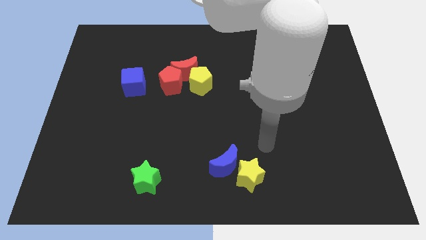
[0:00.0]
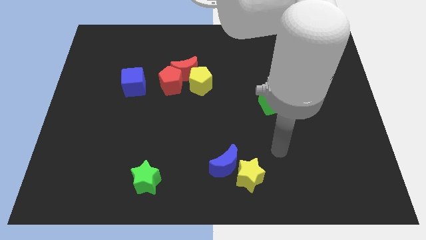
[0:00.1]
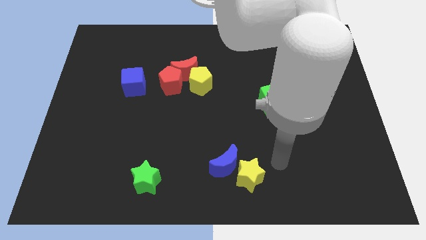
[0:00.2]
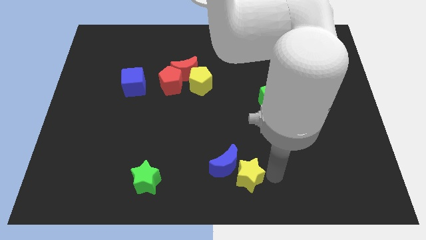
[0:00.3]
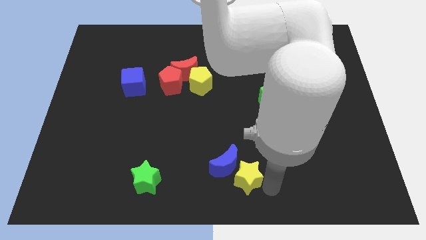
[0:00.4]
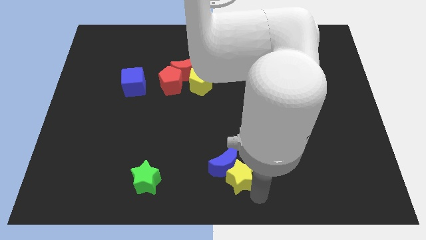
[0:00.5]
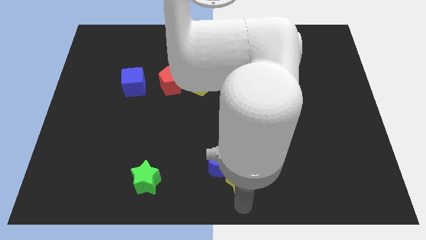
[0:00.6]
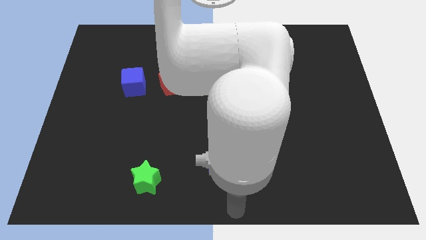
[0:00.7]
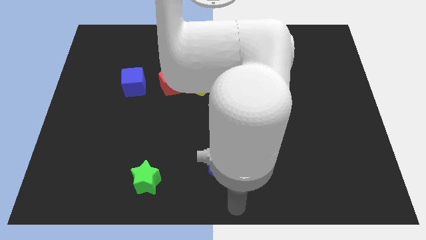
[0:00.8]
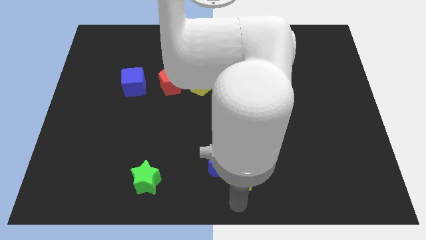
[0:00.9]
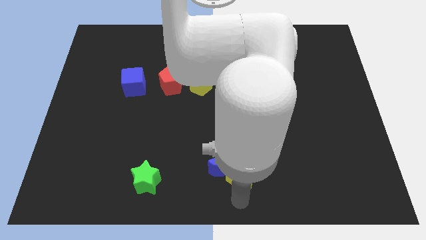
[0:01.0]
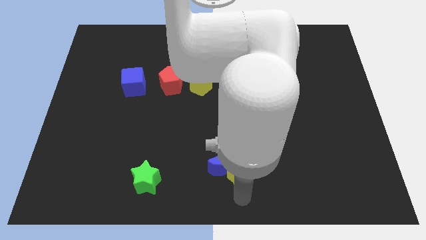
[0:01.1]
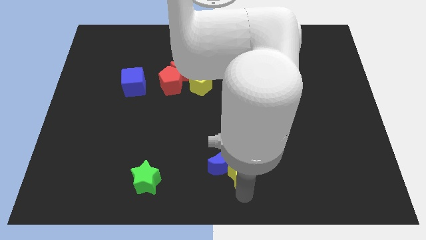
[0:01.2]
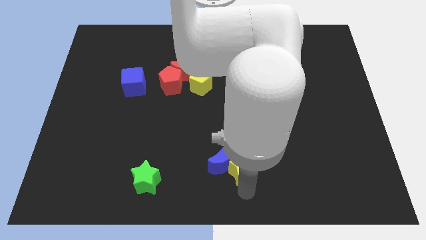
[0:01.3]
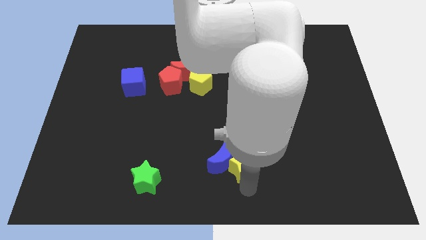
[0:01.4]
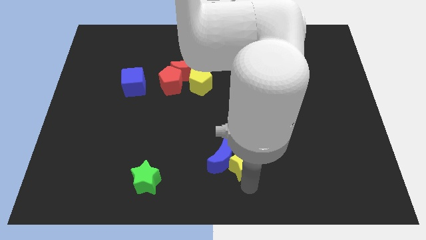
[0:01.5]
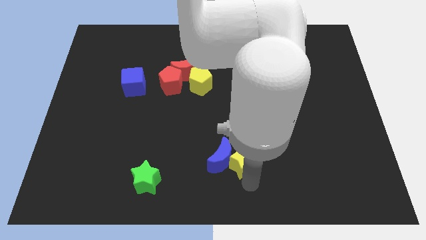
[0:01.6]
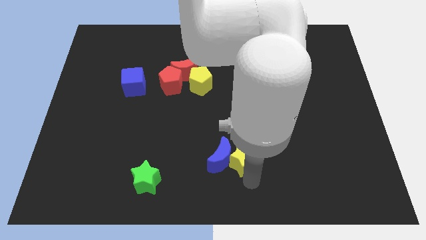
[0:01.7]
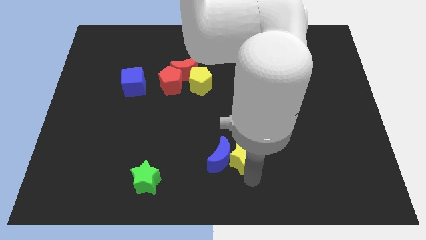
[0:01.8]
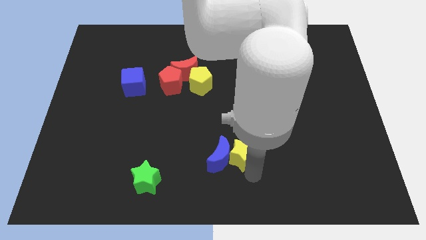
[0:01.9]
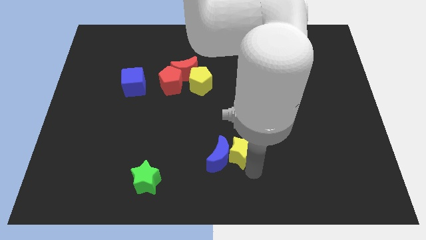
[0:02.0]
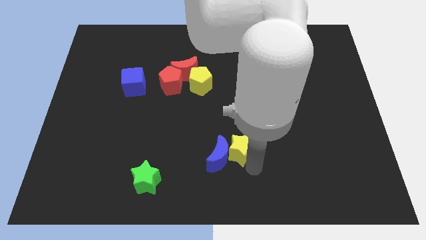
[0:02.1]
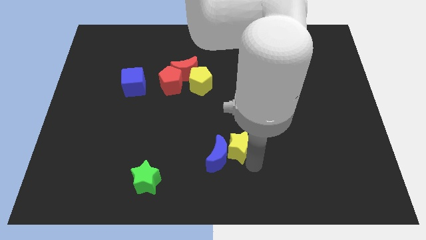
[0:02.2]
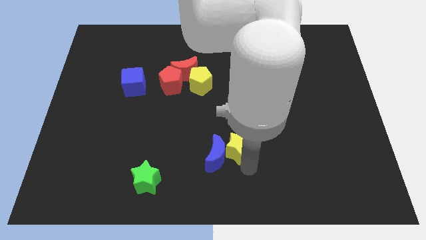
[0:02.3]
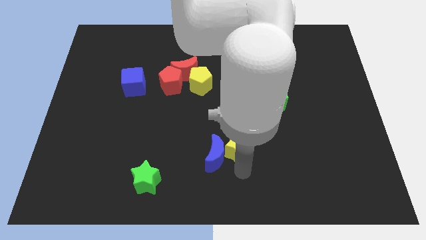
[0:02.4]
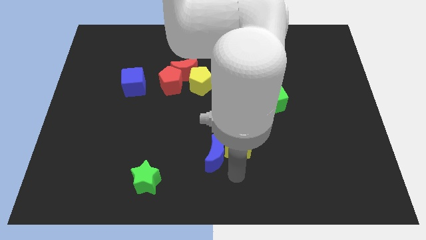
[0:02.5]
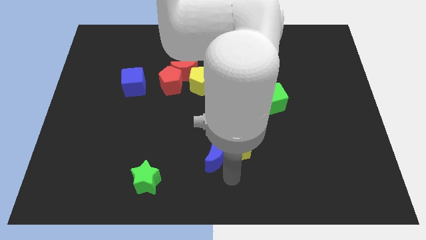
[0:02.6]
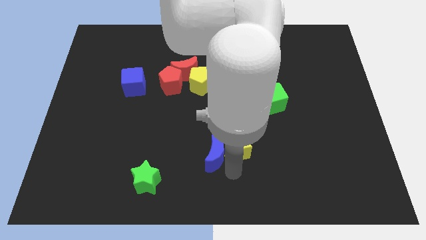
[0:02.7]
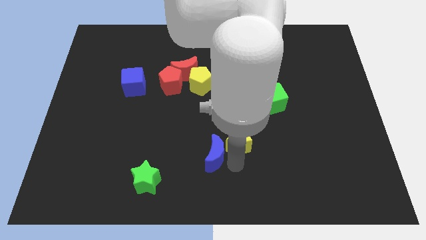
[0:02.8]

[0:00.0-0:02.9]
slightly slide the yellow star upwards

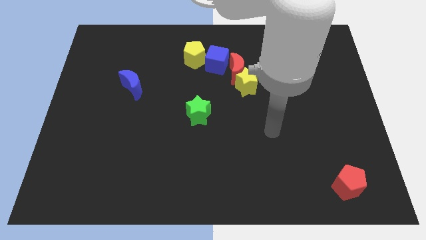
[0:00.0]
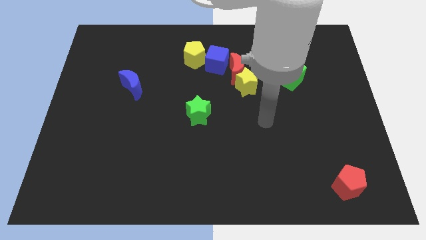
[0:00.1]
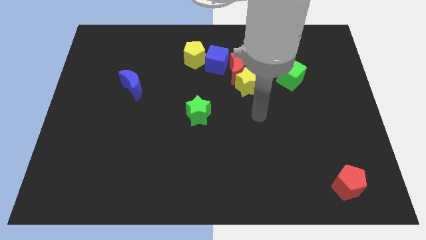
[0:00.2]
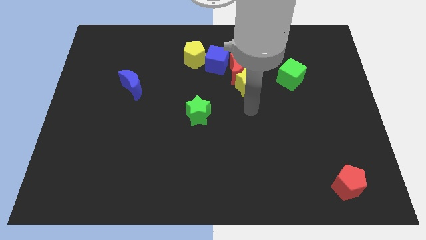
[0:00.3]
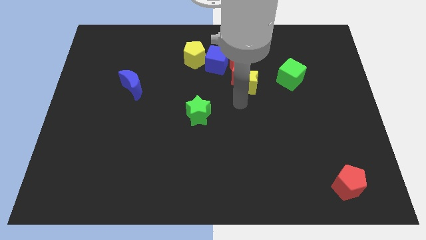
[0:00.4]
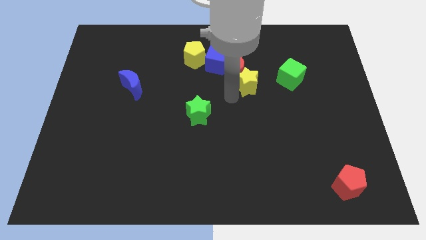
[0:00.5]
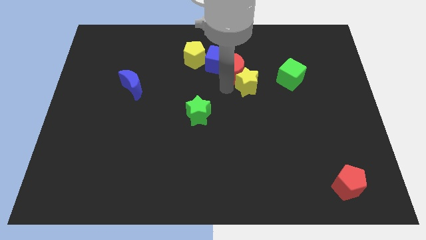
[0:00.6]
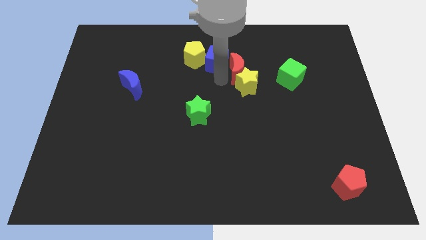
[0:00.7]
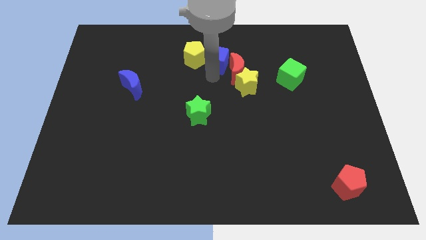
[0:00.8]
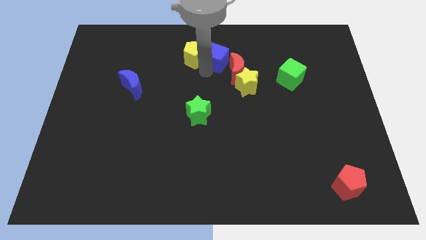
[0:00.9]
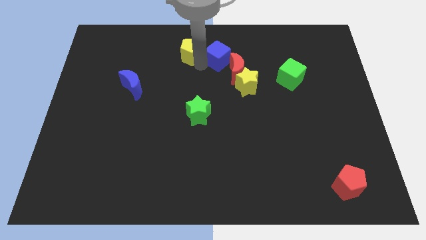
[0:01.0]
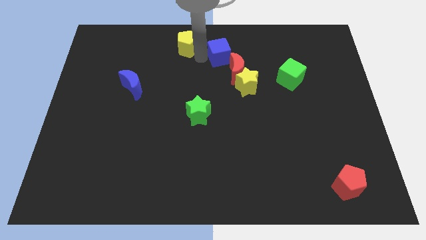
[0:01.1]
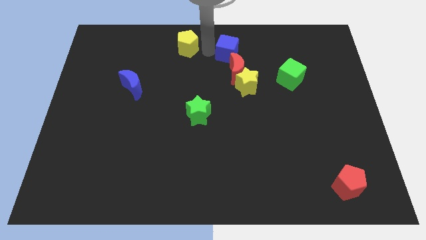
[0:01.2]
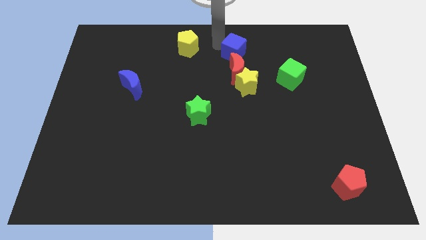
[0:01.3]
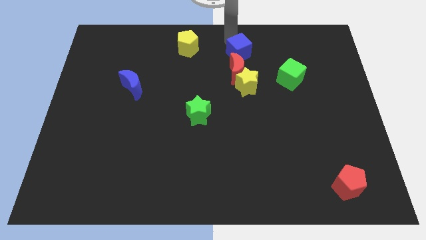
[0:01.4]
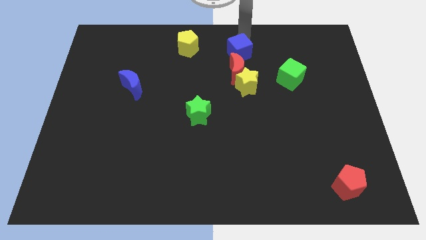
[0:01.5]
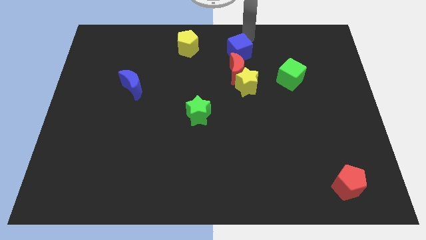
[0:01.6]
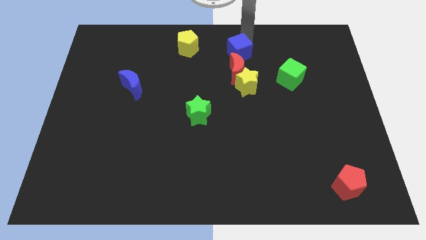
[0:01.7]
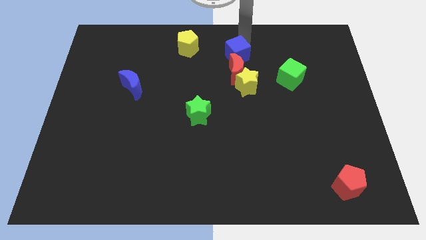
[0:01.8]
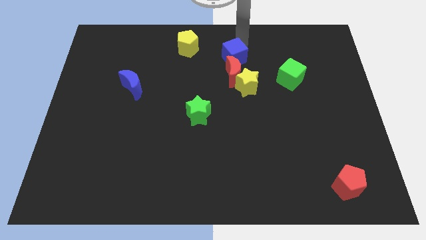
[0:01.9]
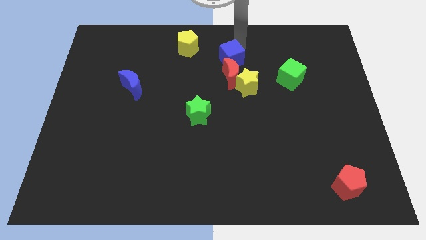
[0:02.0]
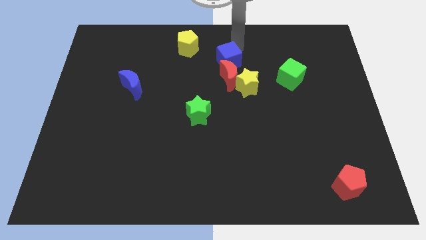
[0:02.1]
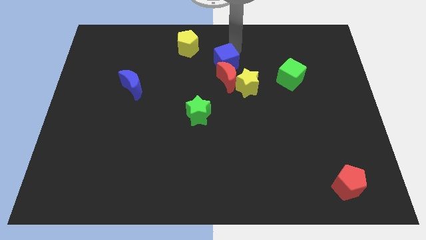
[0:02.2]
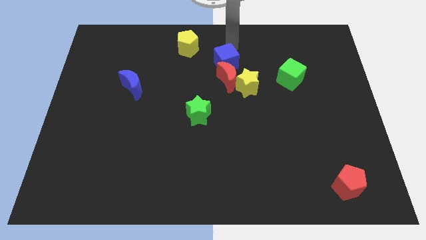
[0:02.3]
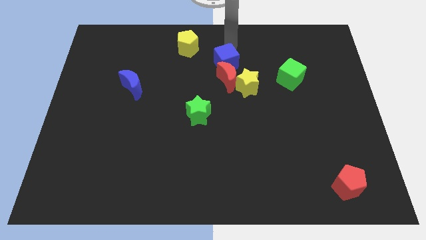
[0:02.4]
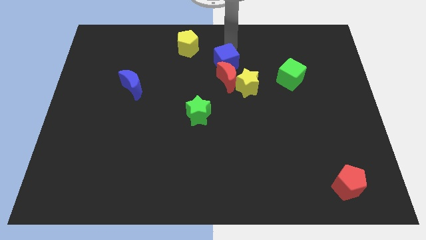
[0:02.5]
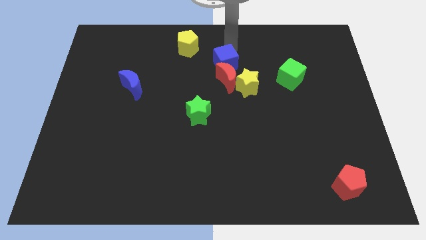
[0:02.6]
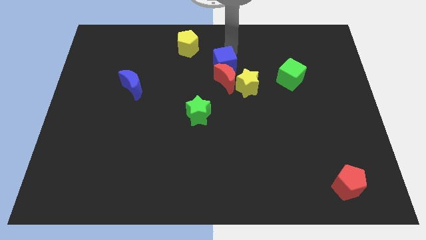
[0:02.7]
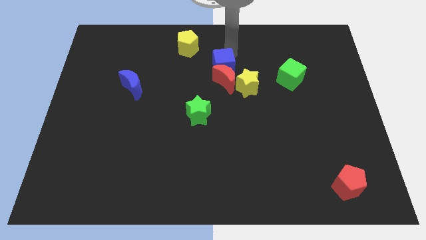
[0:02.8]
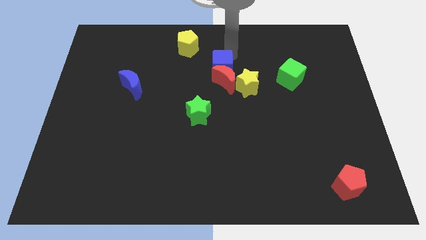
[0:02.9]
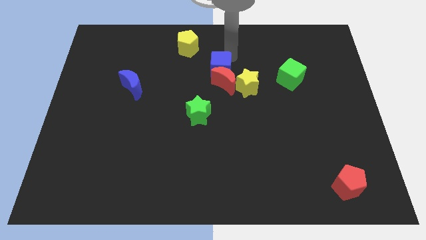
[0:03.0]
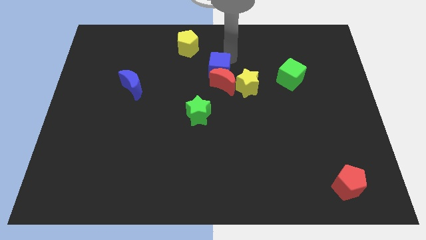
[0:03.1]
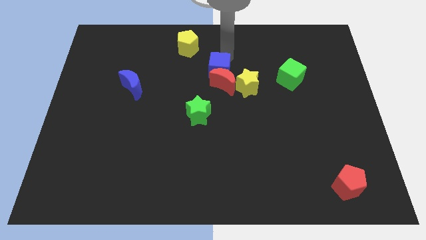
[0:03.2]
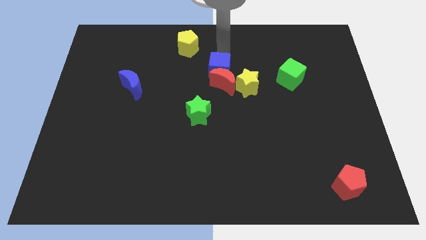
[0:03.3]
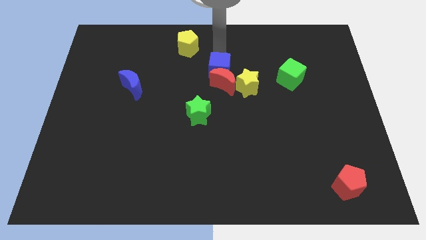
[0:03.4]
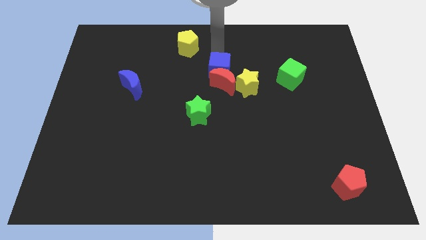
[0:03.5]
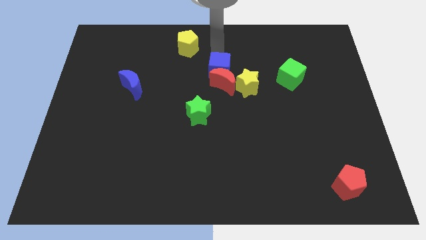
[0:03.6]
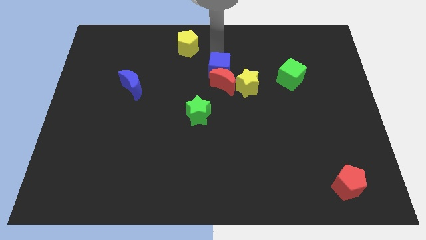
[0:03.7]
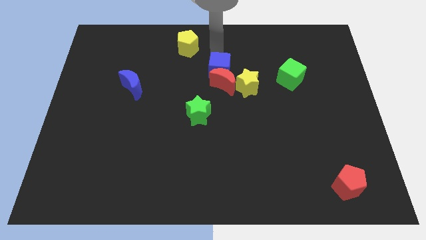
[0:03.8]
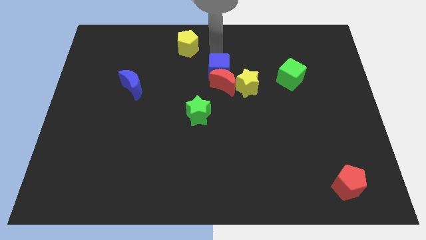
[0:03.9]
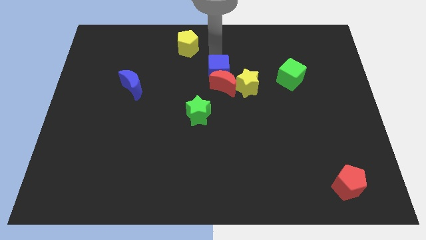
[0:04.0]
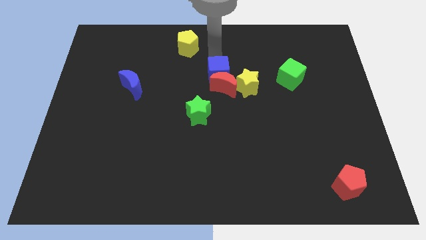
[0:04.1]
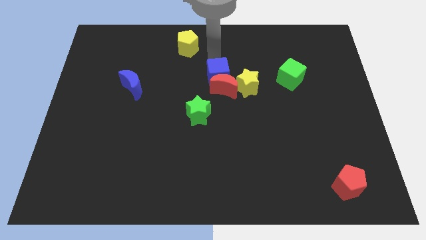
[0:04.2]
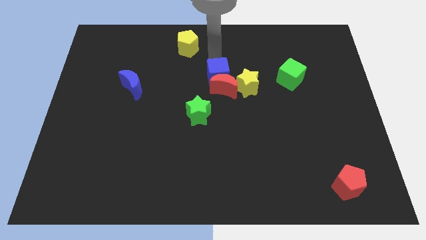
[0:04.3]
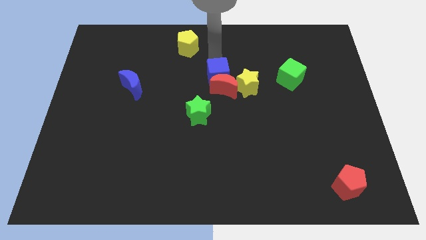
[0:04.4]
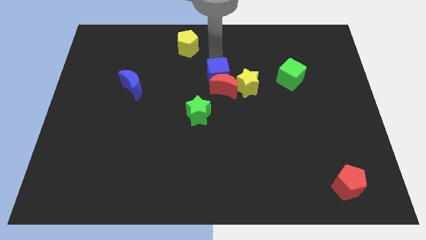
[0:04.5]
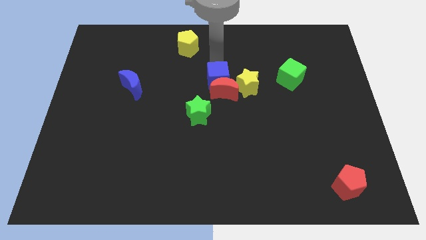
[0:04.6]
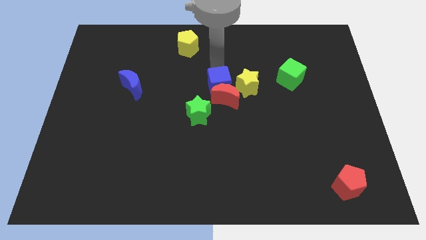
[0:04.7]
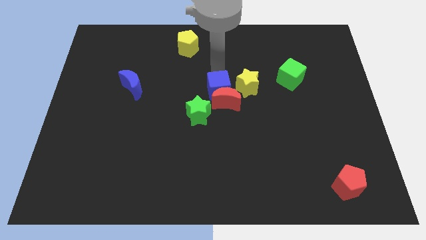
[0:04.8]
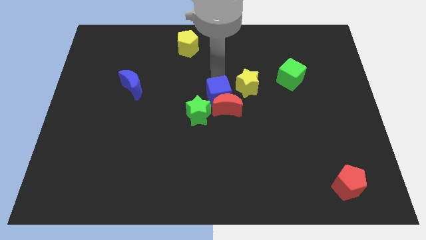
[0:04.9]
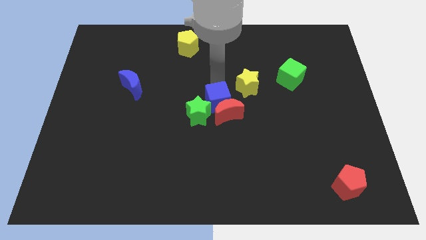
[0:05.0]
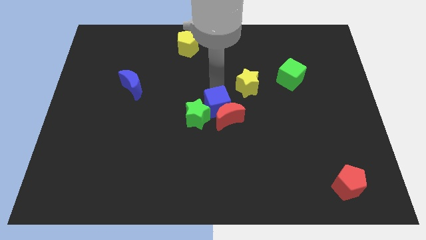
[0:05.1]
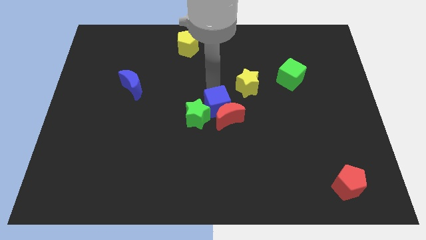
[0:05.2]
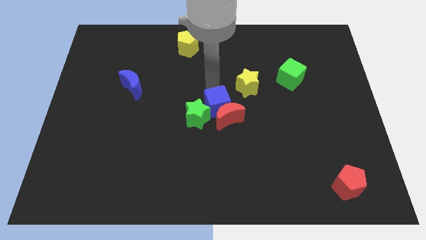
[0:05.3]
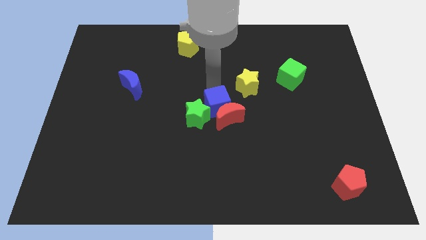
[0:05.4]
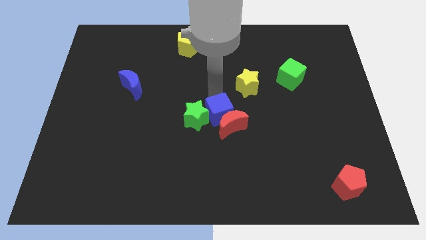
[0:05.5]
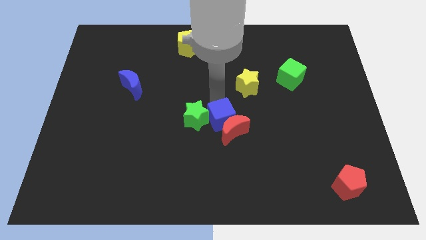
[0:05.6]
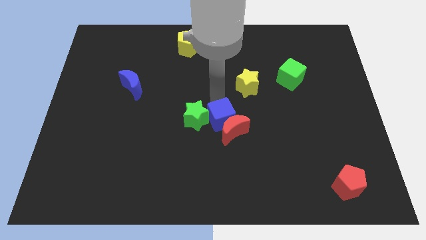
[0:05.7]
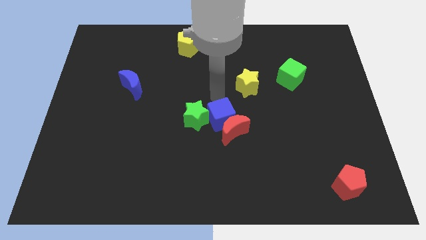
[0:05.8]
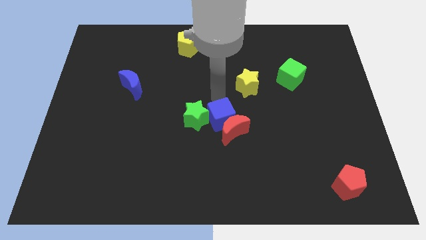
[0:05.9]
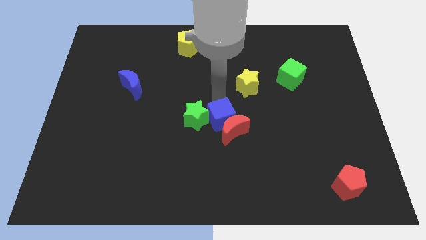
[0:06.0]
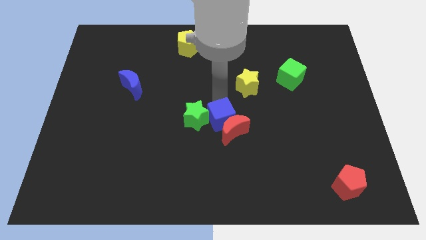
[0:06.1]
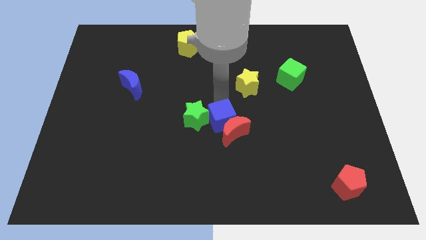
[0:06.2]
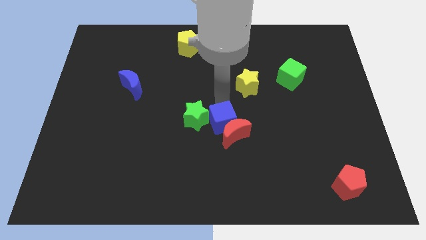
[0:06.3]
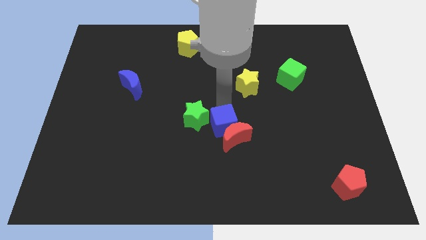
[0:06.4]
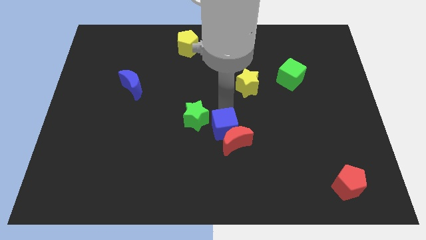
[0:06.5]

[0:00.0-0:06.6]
push the blue cube downwards
